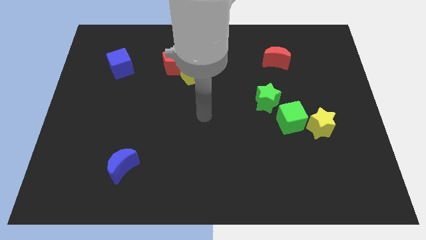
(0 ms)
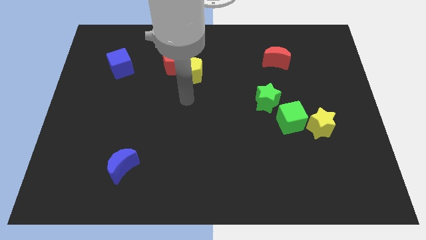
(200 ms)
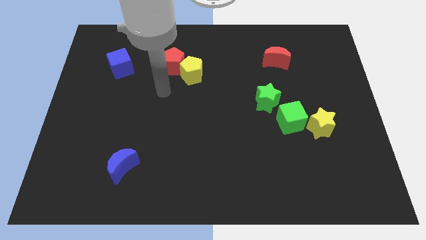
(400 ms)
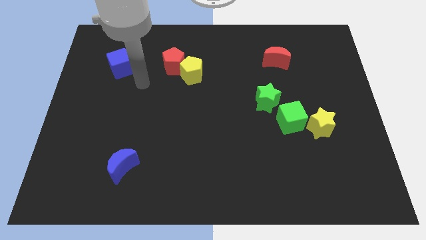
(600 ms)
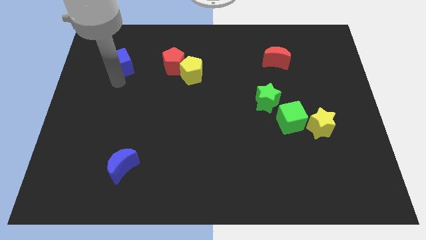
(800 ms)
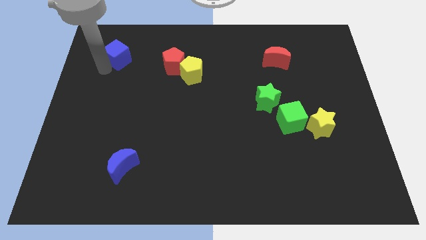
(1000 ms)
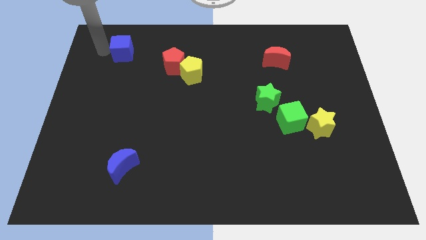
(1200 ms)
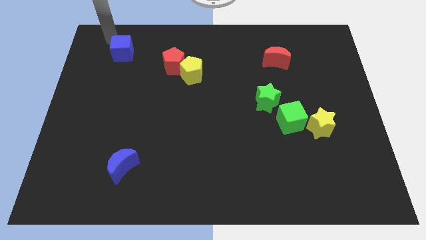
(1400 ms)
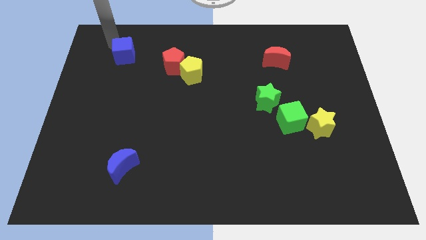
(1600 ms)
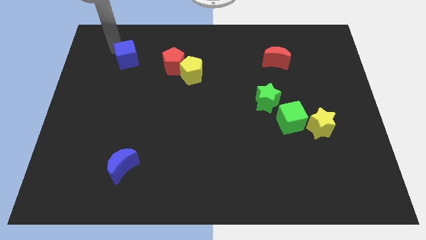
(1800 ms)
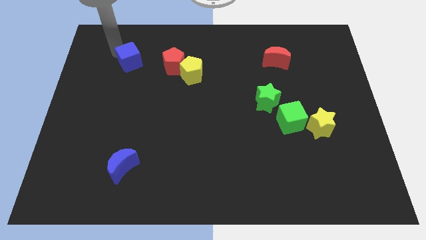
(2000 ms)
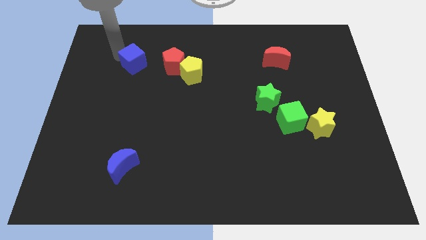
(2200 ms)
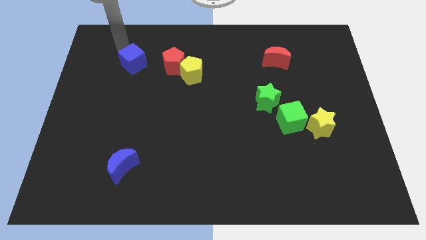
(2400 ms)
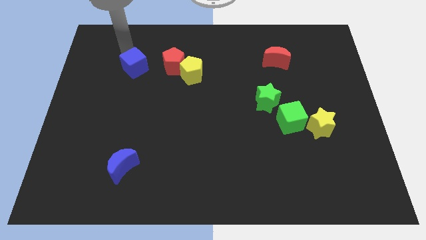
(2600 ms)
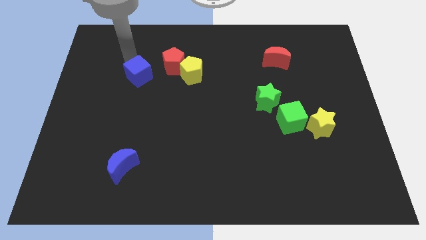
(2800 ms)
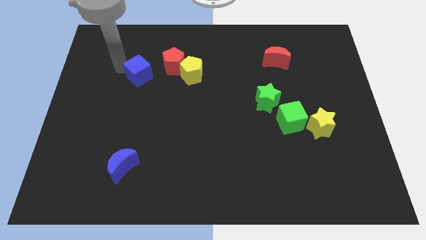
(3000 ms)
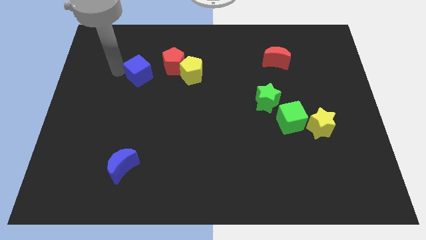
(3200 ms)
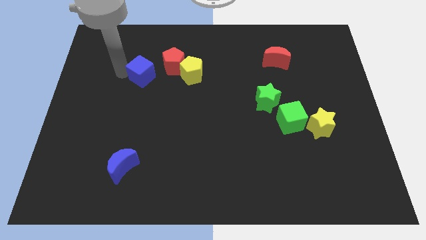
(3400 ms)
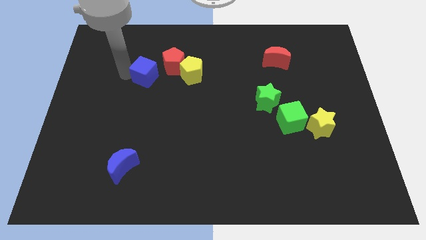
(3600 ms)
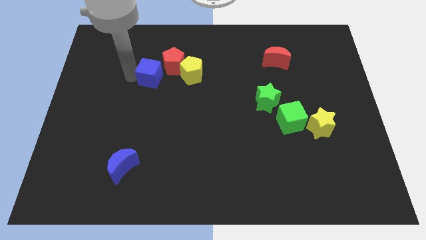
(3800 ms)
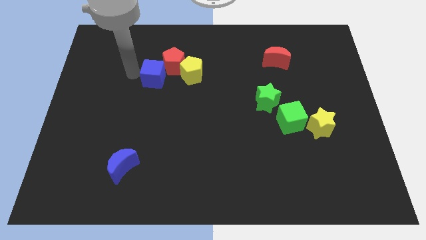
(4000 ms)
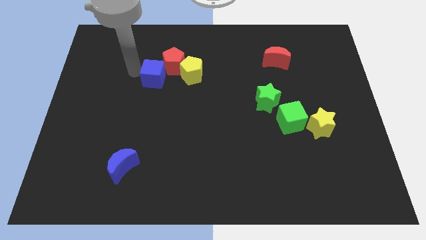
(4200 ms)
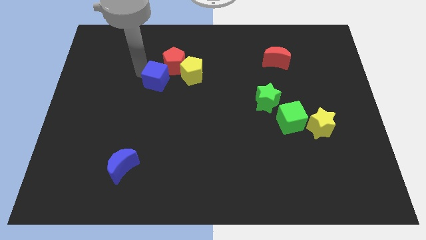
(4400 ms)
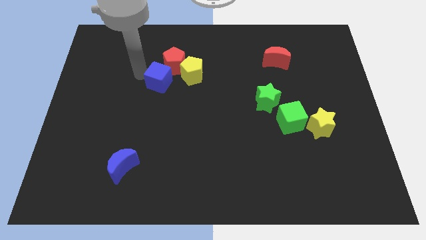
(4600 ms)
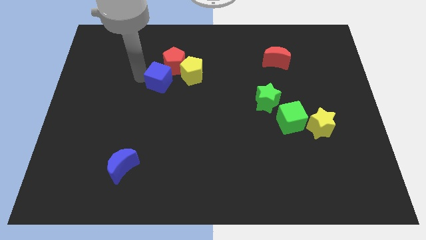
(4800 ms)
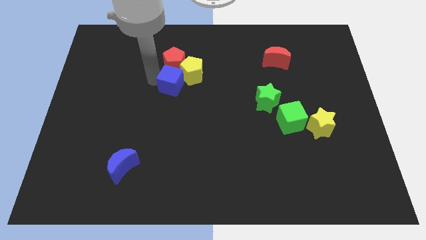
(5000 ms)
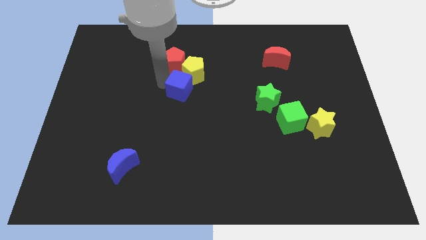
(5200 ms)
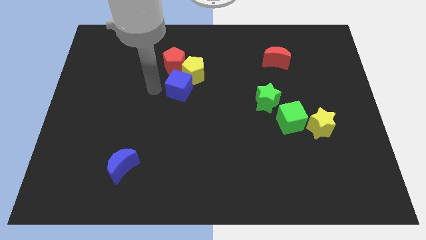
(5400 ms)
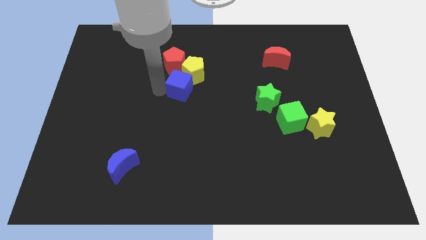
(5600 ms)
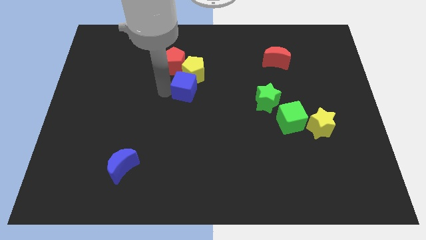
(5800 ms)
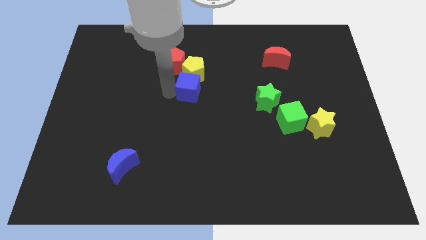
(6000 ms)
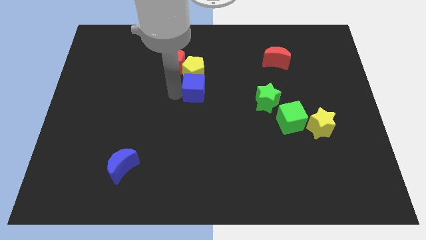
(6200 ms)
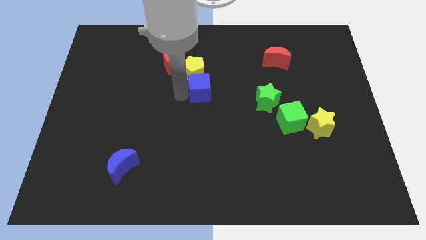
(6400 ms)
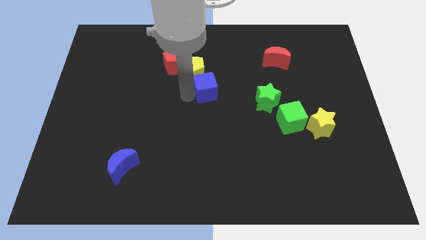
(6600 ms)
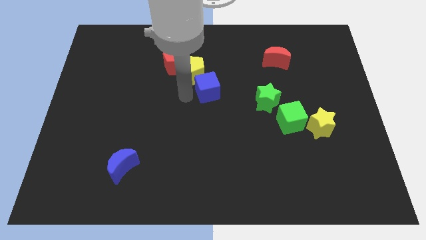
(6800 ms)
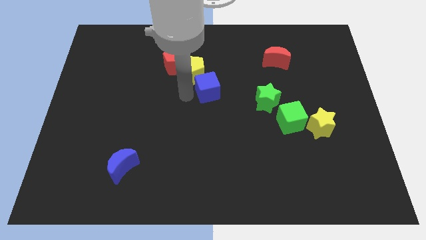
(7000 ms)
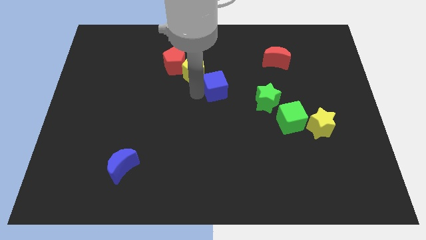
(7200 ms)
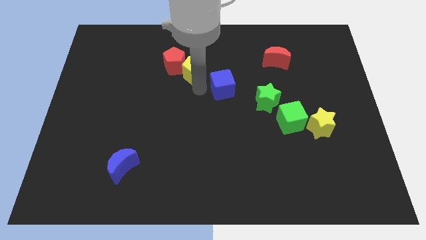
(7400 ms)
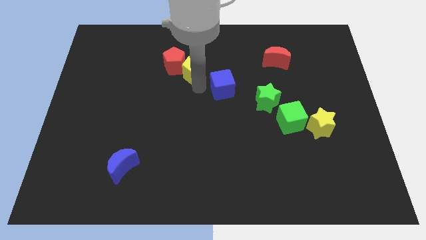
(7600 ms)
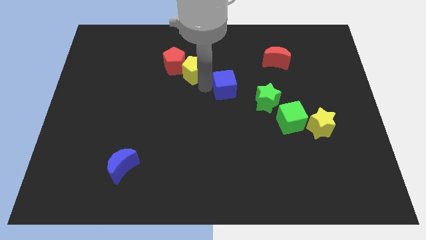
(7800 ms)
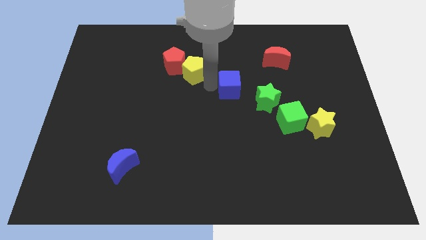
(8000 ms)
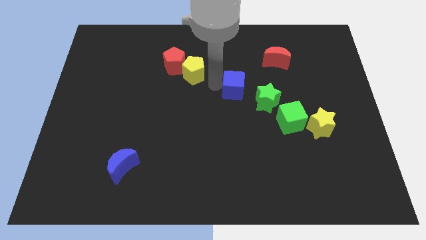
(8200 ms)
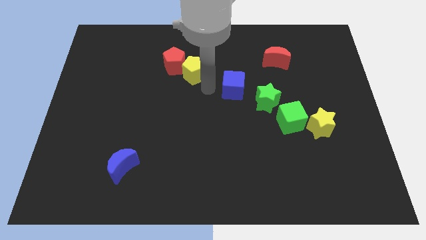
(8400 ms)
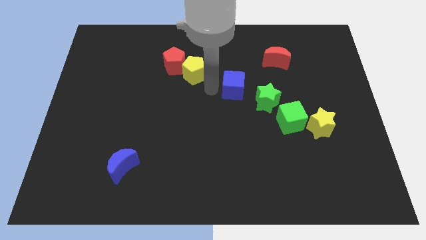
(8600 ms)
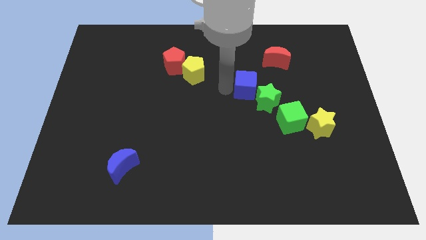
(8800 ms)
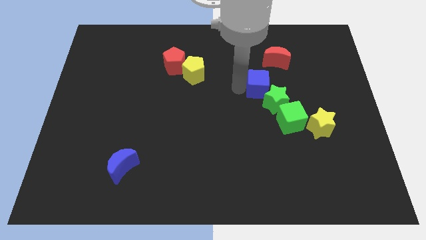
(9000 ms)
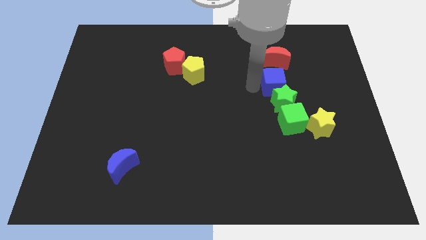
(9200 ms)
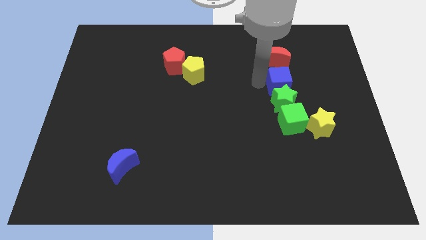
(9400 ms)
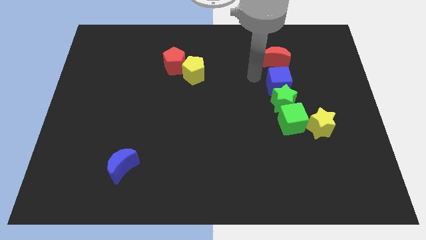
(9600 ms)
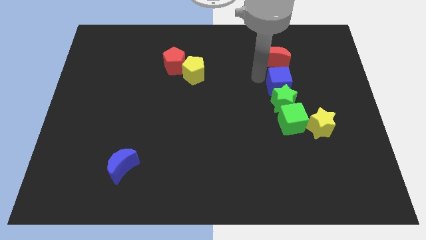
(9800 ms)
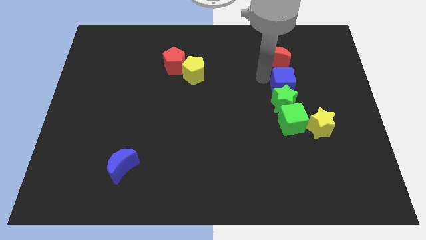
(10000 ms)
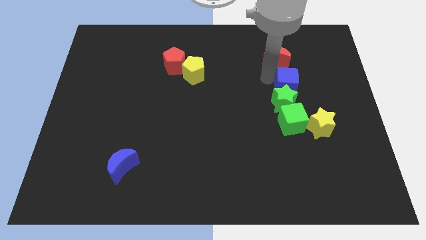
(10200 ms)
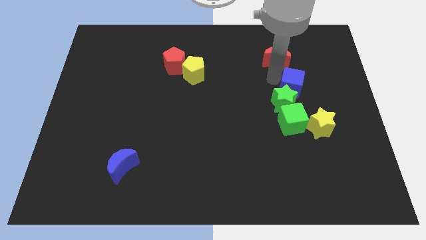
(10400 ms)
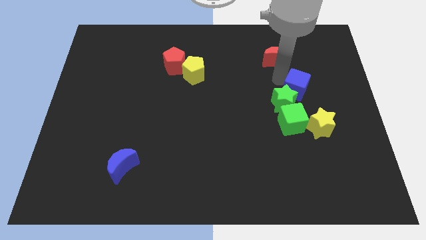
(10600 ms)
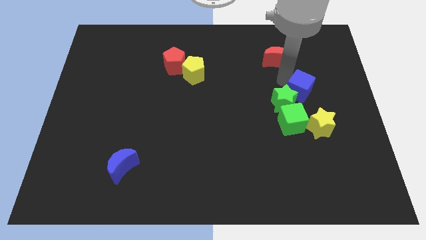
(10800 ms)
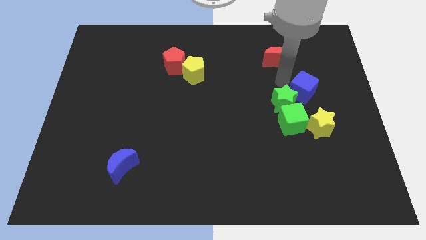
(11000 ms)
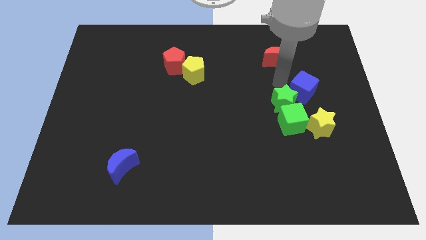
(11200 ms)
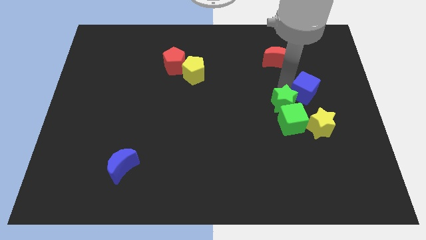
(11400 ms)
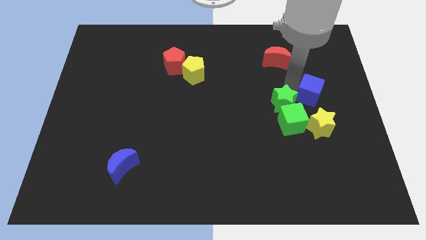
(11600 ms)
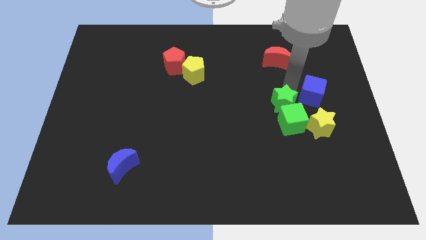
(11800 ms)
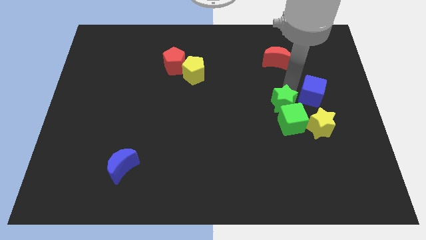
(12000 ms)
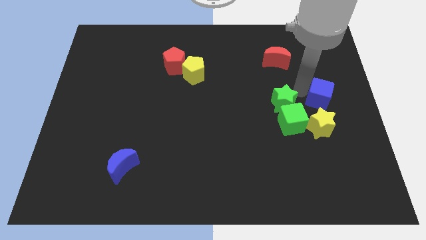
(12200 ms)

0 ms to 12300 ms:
push the blue cube to the right side of the board
